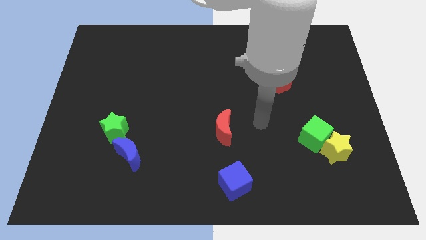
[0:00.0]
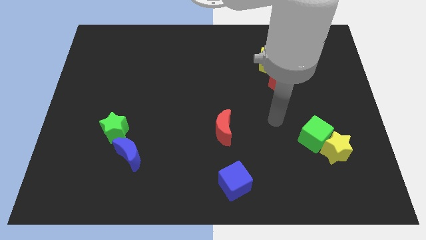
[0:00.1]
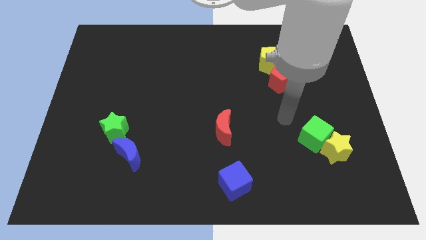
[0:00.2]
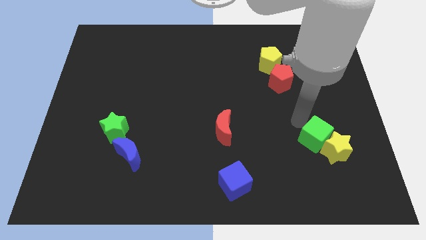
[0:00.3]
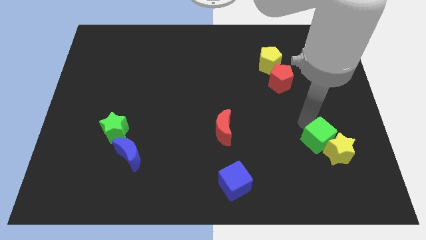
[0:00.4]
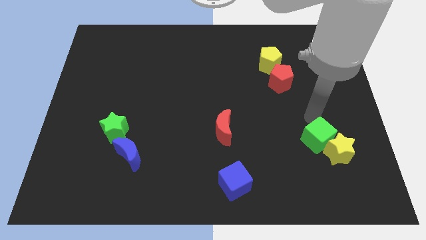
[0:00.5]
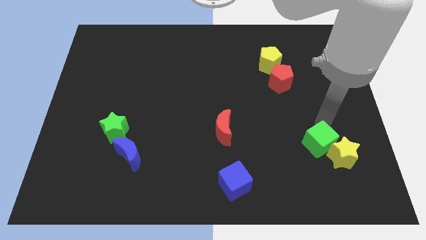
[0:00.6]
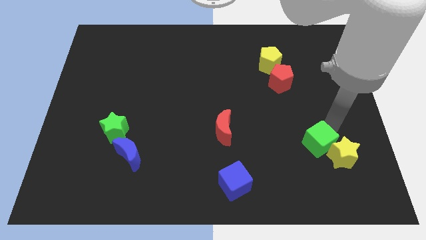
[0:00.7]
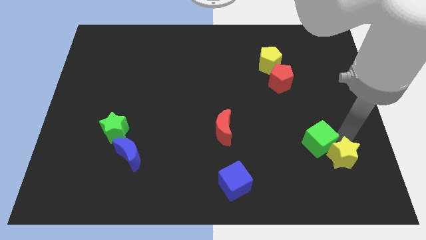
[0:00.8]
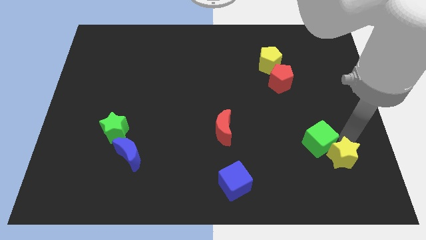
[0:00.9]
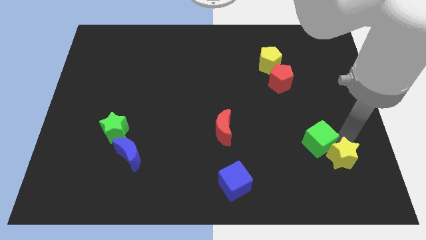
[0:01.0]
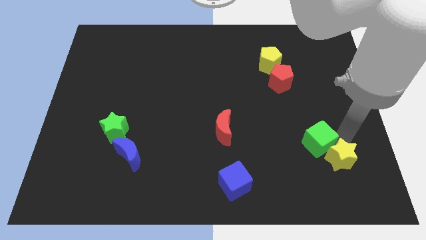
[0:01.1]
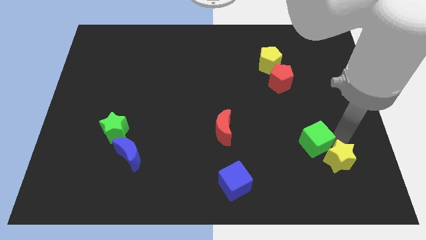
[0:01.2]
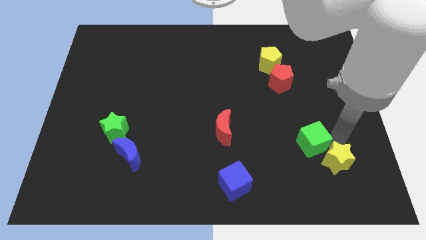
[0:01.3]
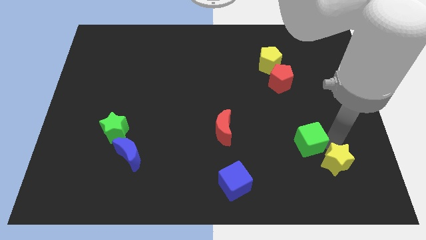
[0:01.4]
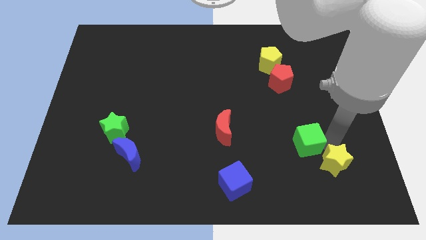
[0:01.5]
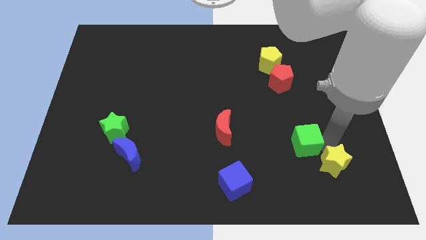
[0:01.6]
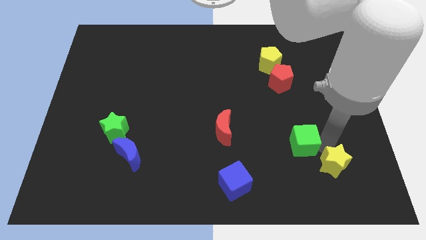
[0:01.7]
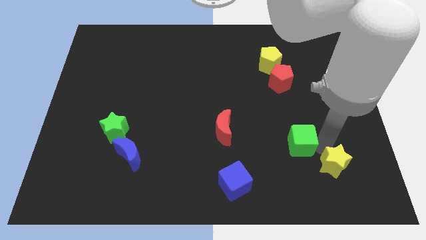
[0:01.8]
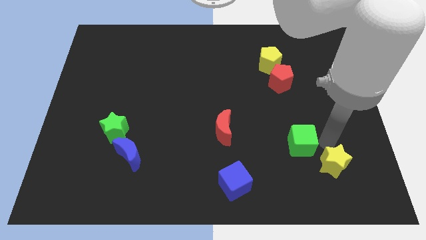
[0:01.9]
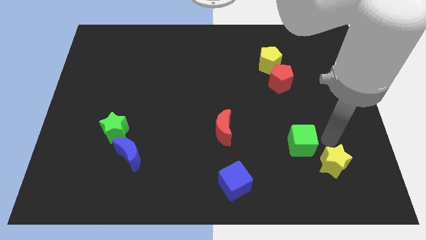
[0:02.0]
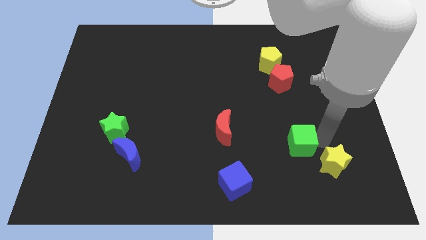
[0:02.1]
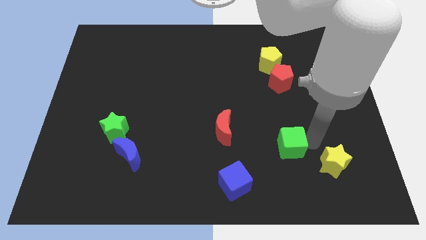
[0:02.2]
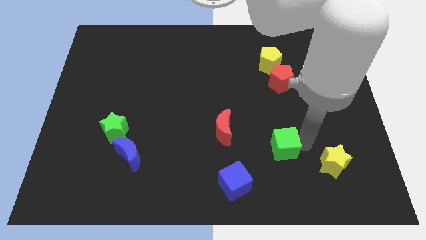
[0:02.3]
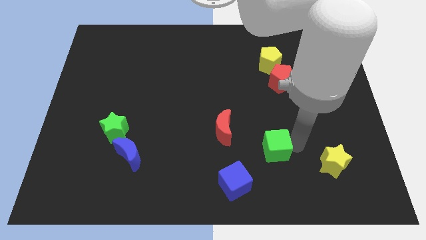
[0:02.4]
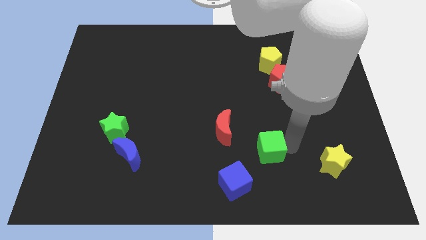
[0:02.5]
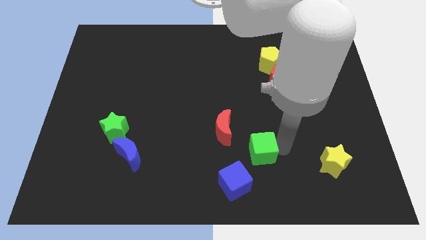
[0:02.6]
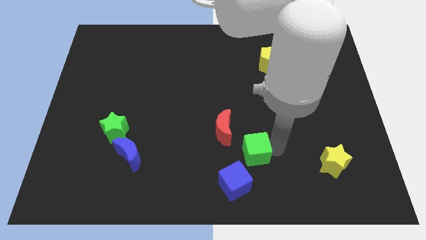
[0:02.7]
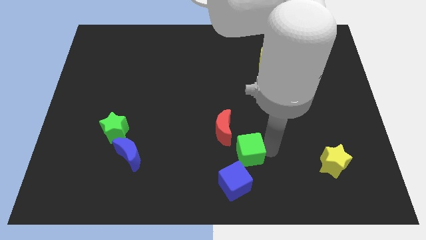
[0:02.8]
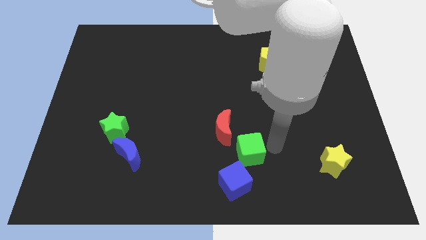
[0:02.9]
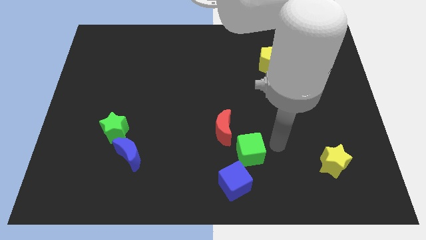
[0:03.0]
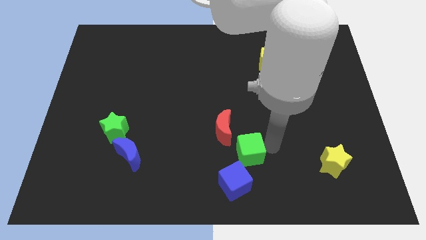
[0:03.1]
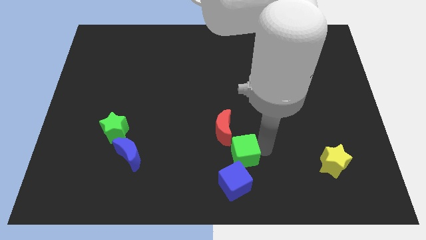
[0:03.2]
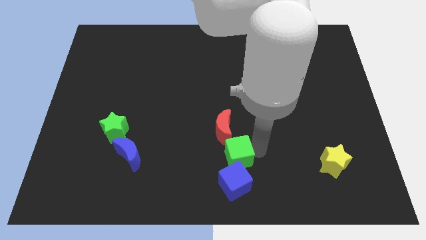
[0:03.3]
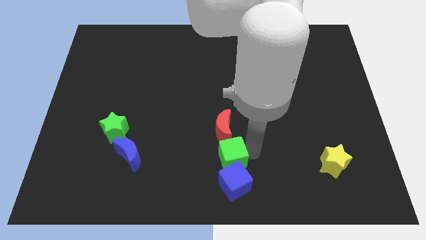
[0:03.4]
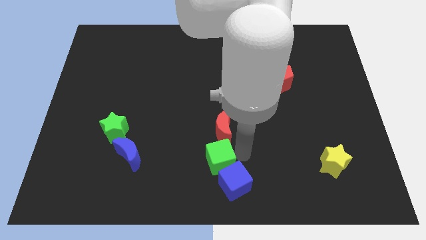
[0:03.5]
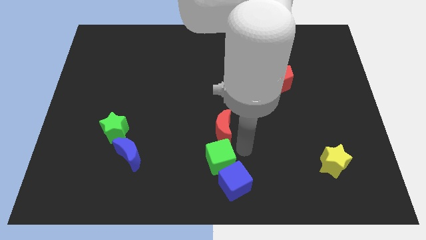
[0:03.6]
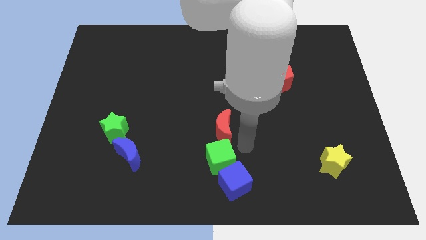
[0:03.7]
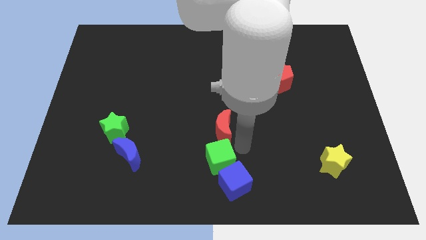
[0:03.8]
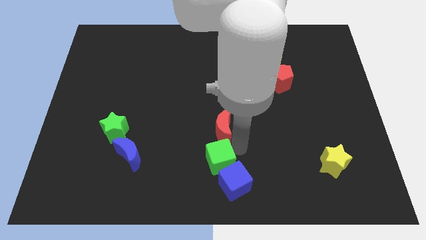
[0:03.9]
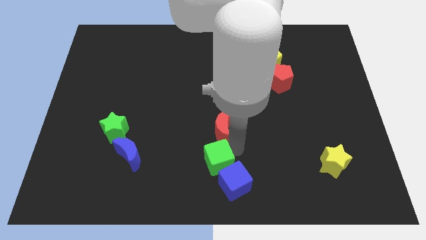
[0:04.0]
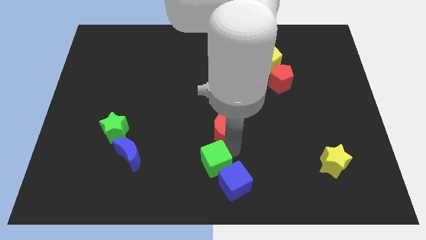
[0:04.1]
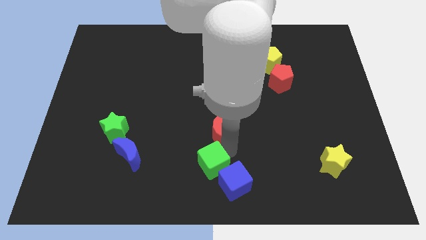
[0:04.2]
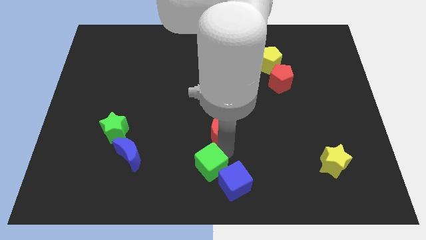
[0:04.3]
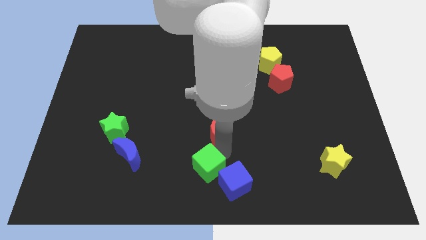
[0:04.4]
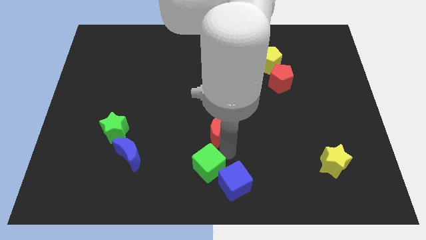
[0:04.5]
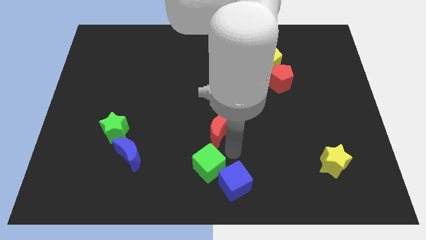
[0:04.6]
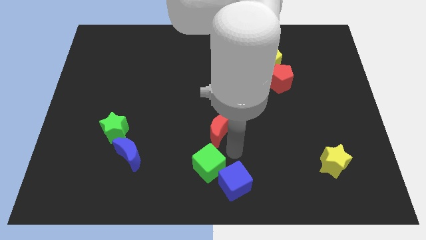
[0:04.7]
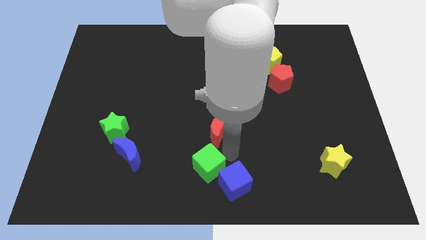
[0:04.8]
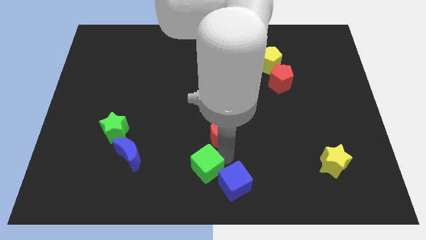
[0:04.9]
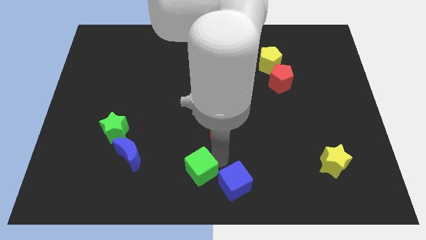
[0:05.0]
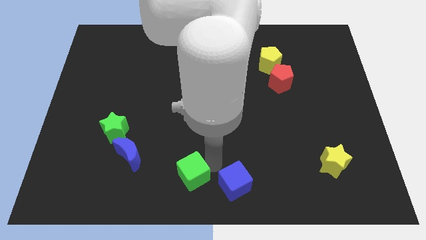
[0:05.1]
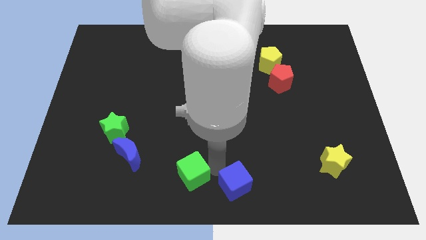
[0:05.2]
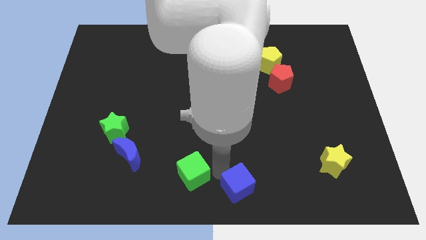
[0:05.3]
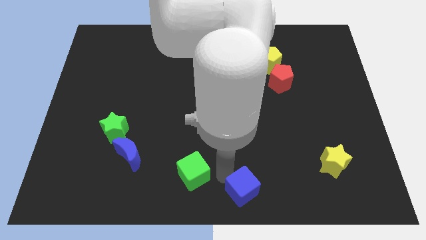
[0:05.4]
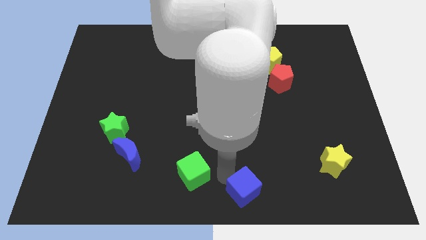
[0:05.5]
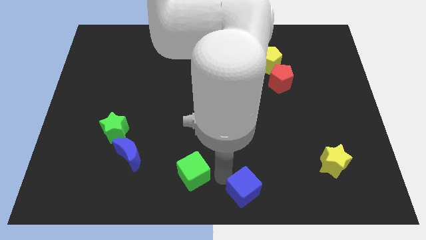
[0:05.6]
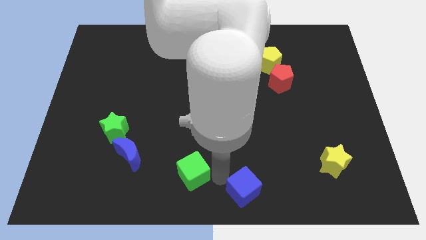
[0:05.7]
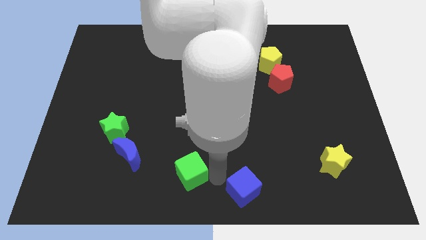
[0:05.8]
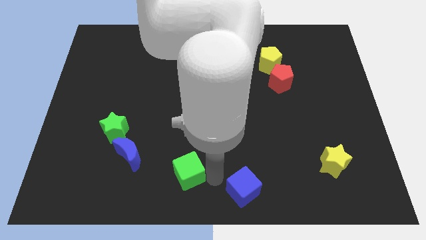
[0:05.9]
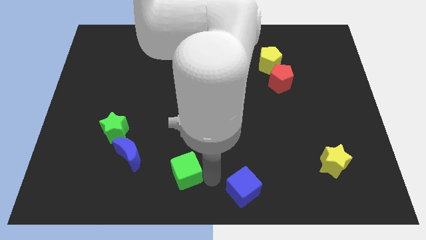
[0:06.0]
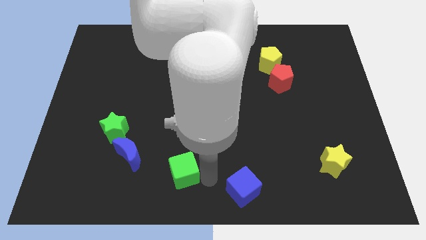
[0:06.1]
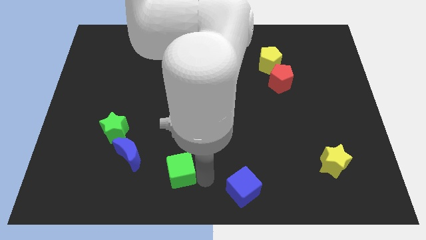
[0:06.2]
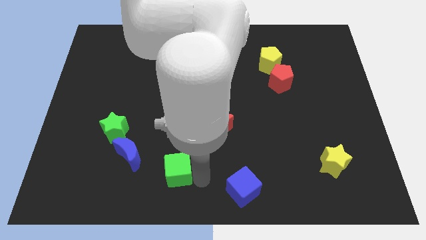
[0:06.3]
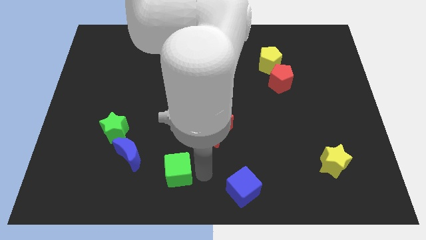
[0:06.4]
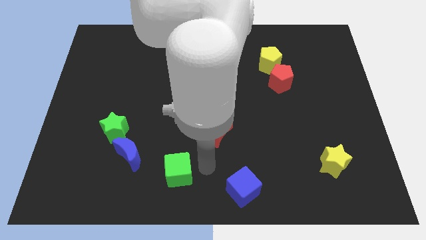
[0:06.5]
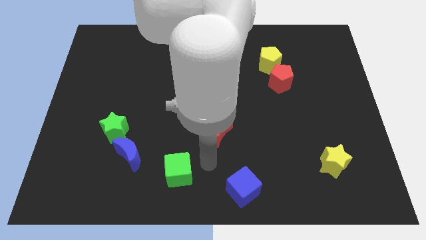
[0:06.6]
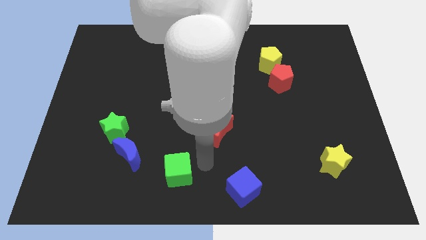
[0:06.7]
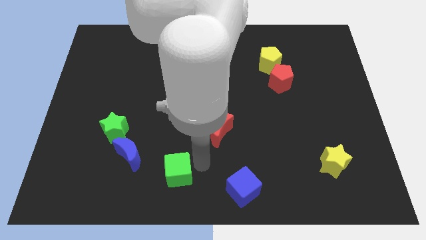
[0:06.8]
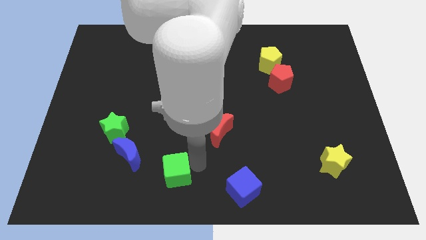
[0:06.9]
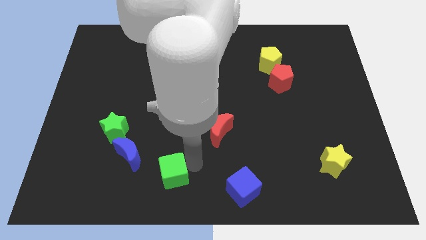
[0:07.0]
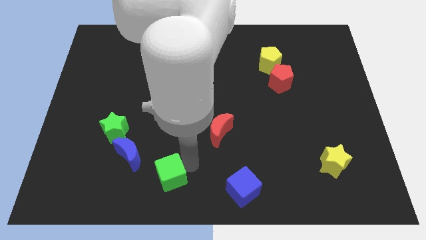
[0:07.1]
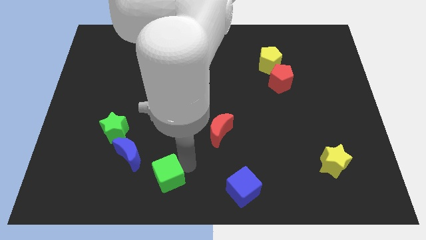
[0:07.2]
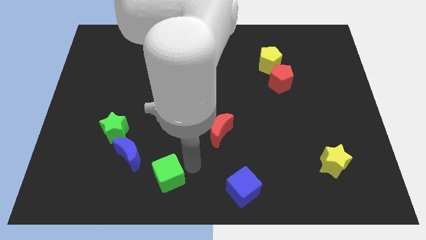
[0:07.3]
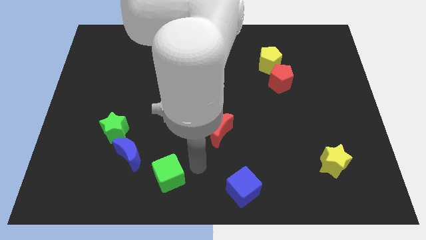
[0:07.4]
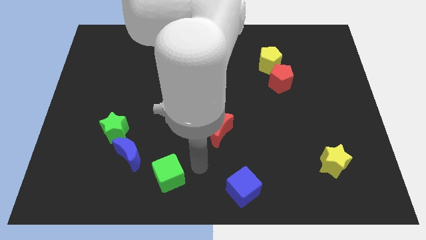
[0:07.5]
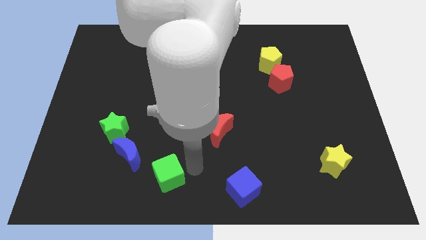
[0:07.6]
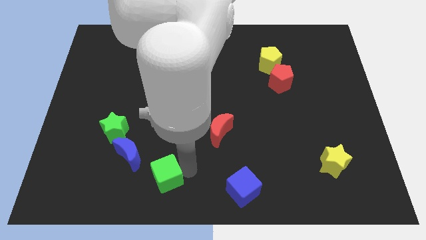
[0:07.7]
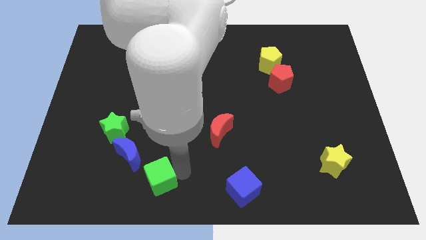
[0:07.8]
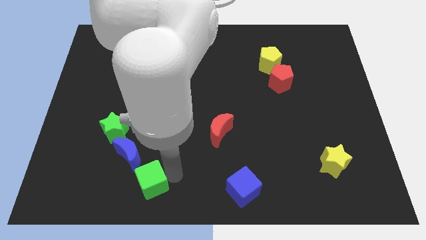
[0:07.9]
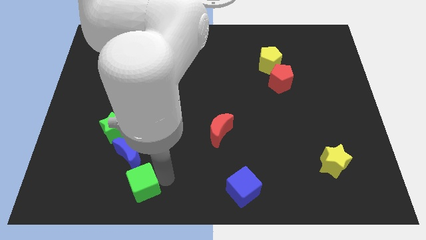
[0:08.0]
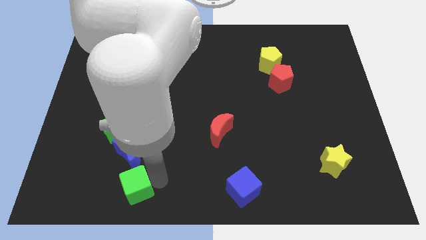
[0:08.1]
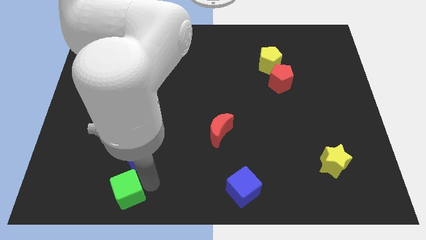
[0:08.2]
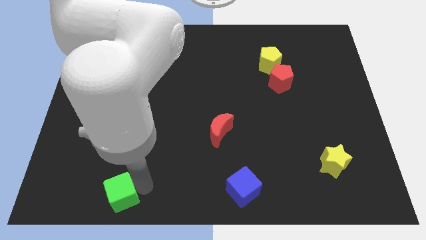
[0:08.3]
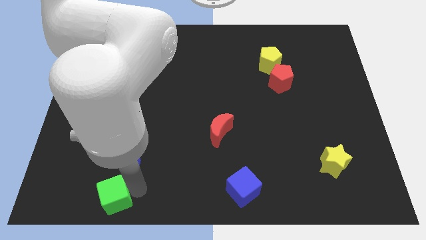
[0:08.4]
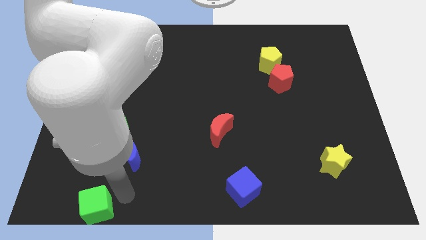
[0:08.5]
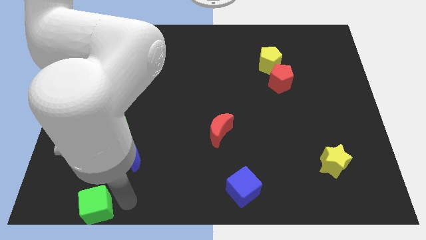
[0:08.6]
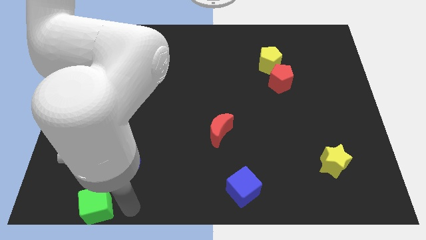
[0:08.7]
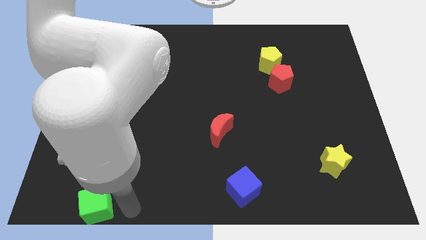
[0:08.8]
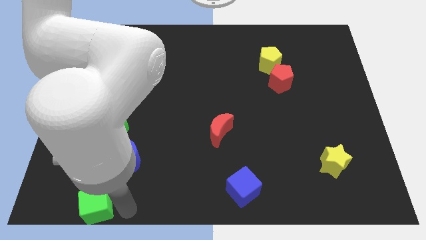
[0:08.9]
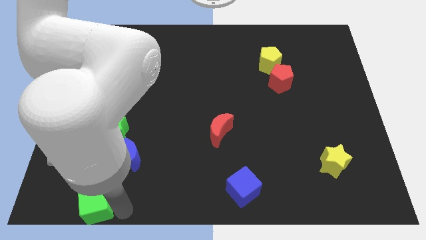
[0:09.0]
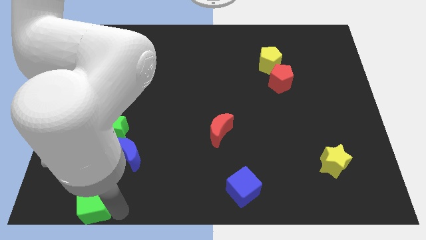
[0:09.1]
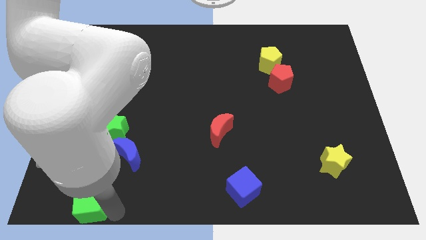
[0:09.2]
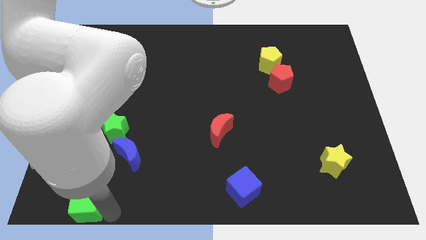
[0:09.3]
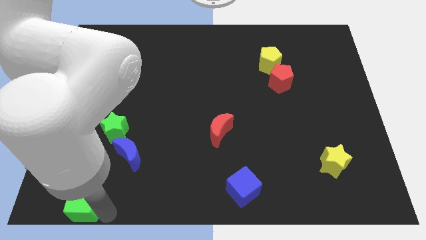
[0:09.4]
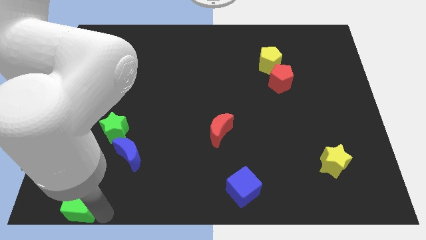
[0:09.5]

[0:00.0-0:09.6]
slide the green cube to the bottom left corner
